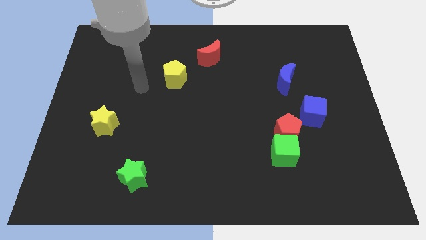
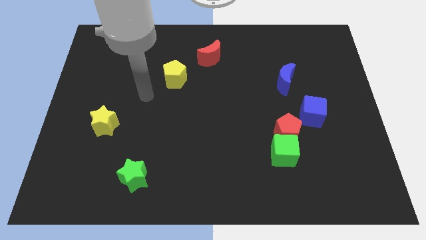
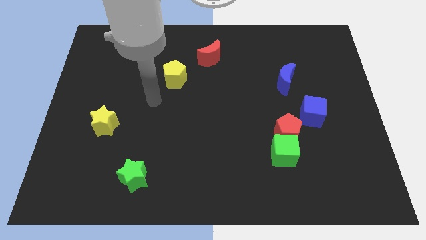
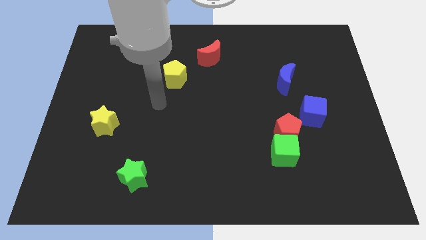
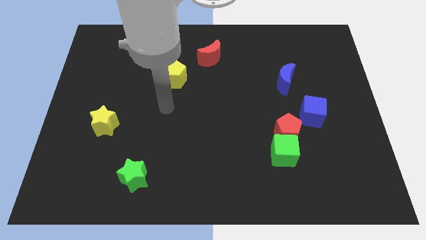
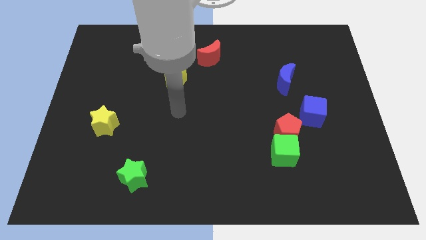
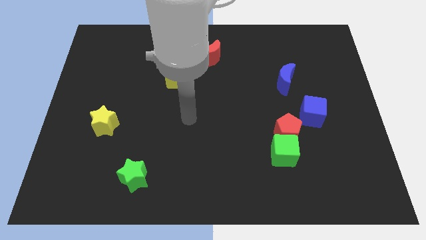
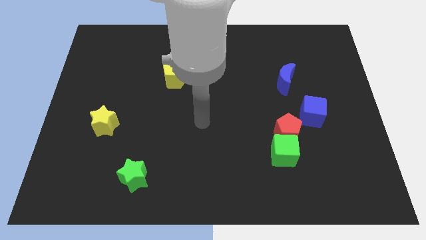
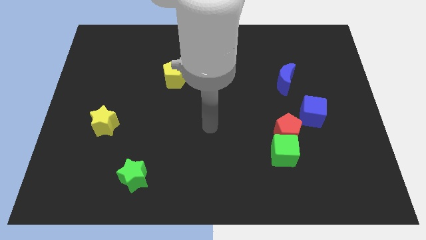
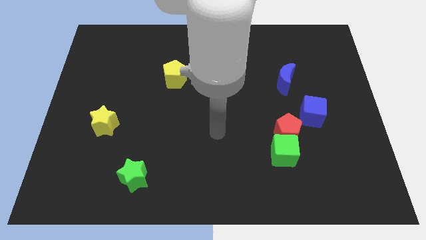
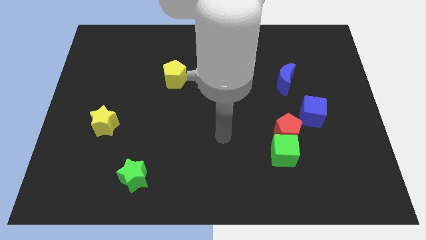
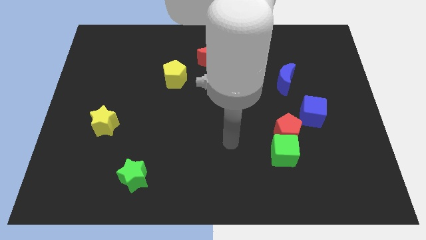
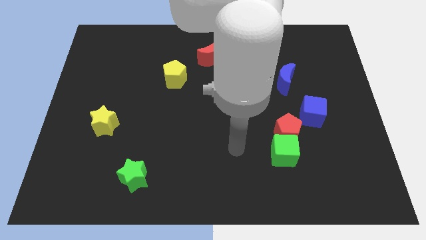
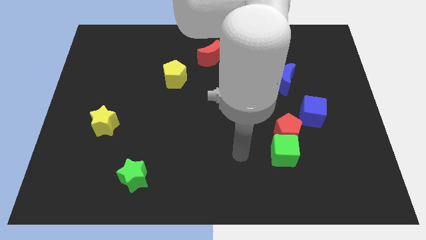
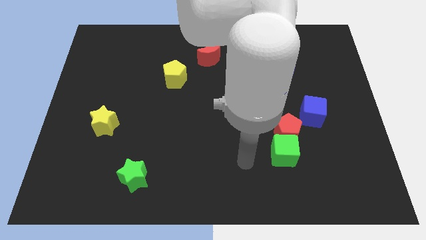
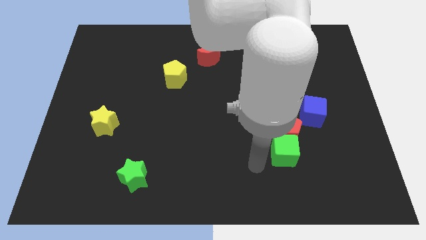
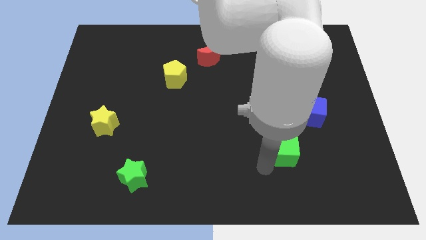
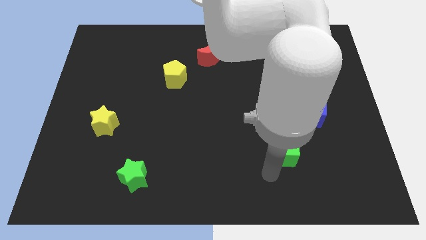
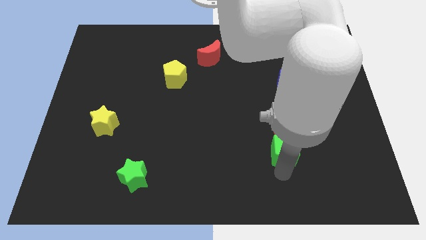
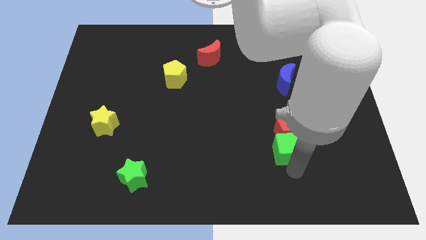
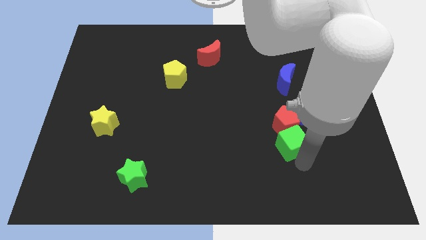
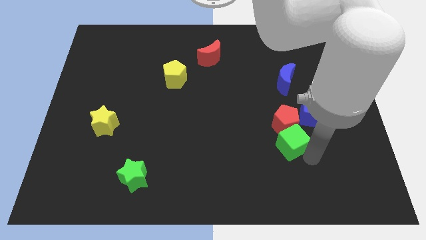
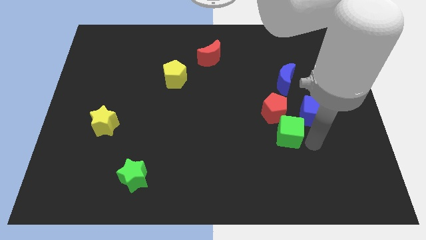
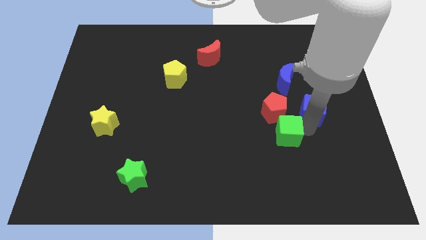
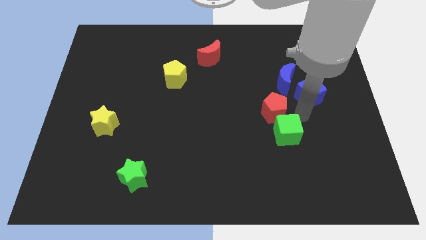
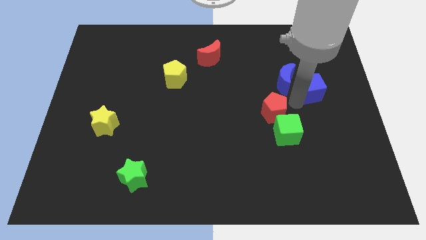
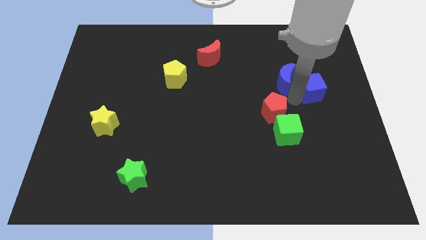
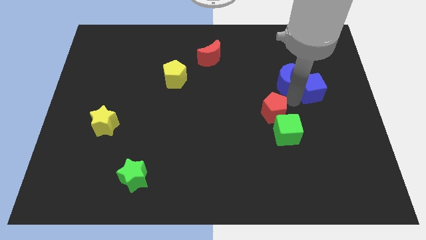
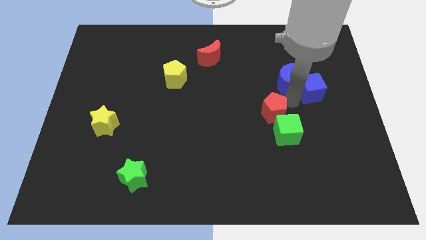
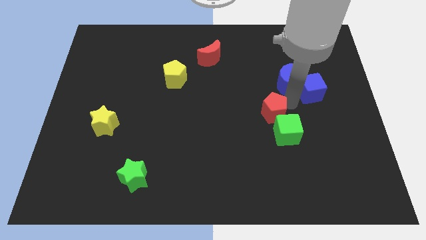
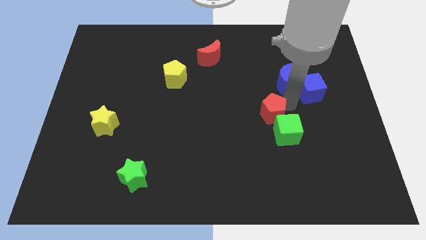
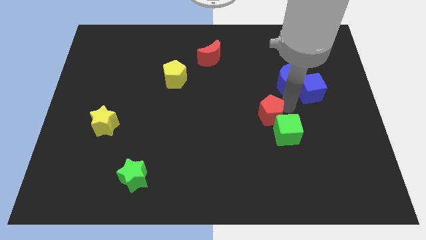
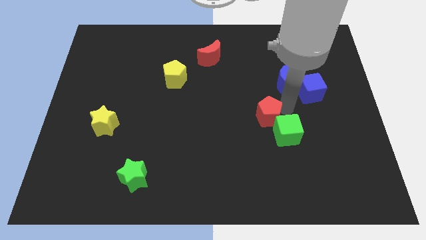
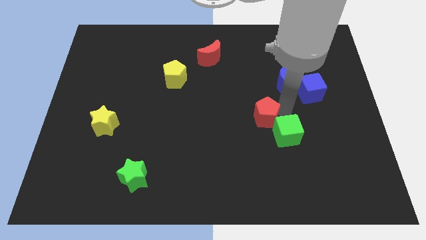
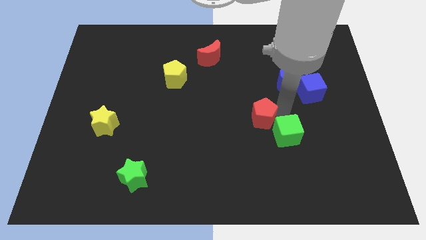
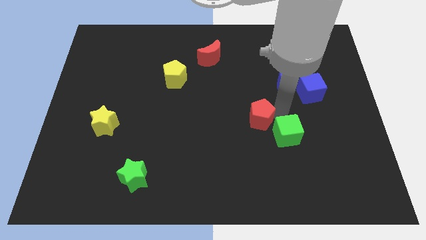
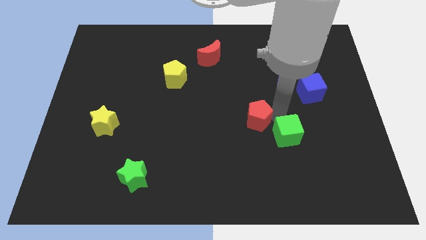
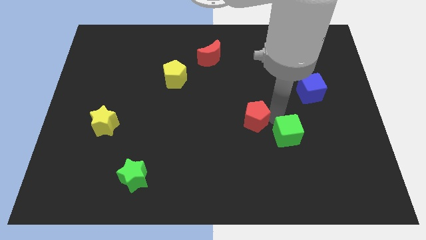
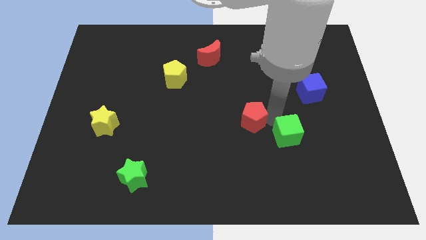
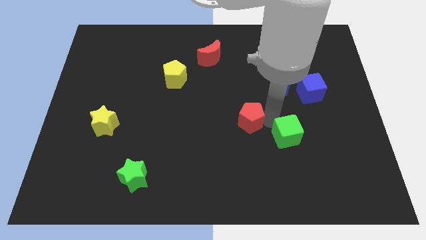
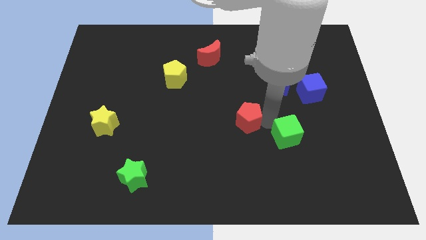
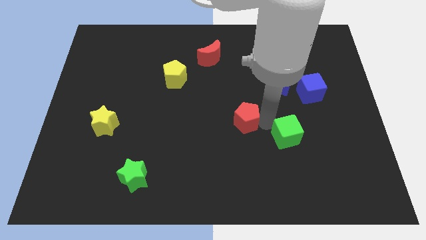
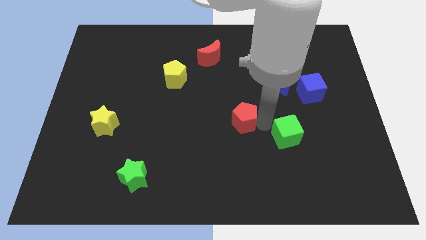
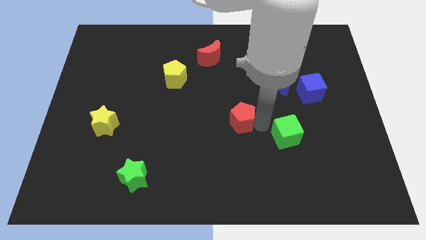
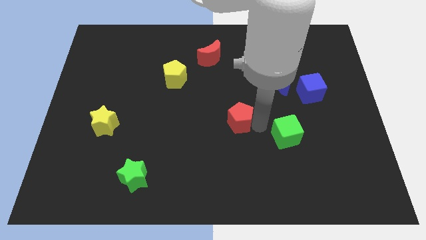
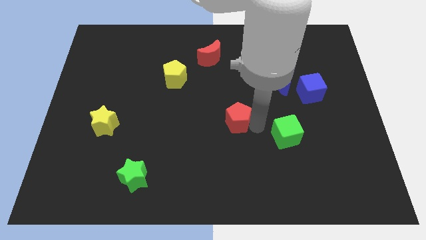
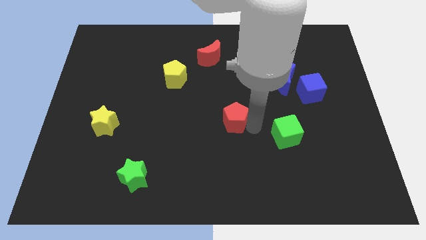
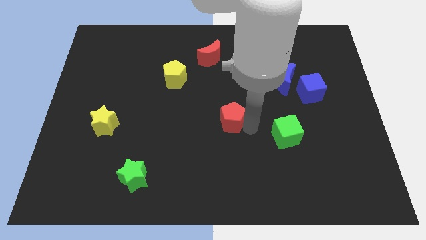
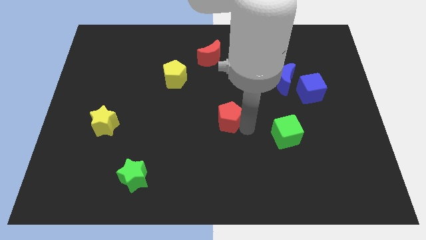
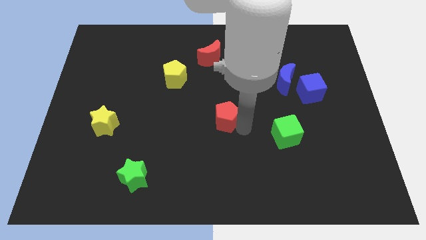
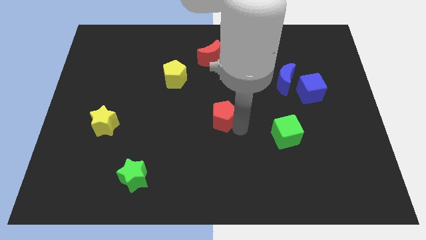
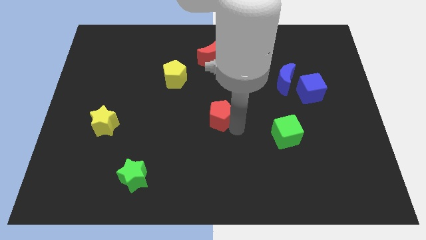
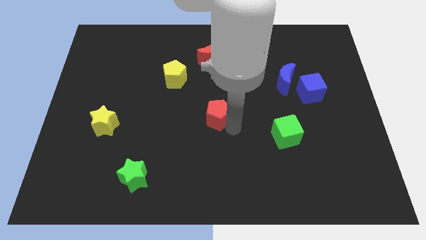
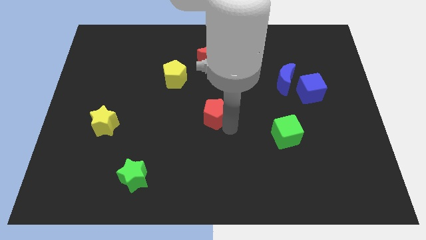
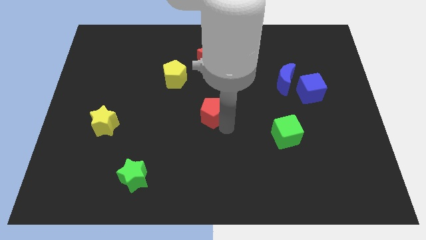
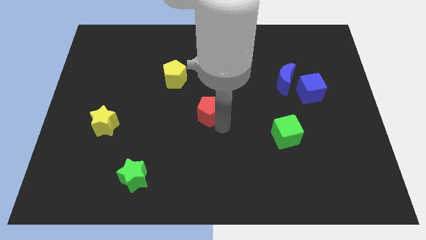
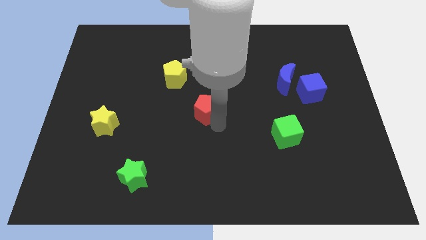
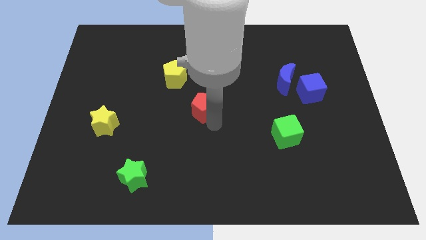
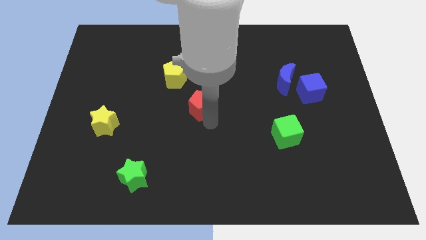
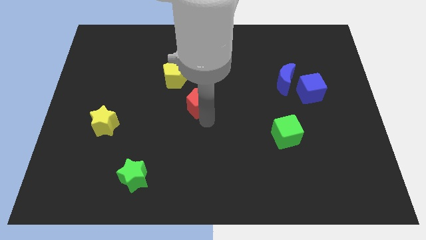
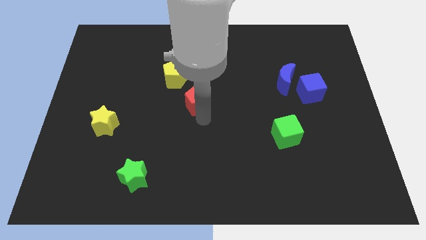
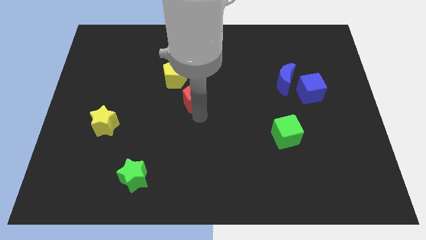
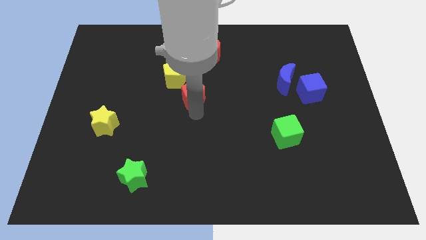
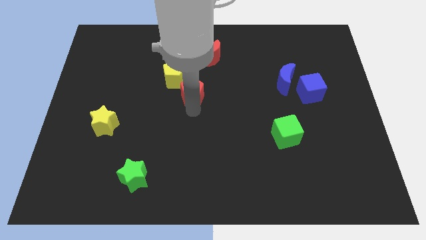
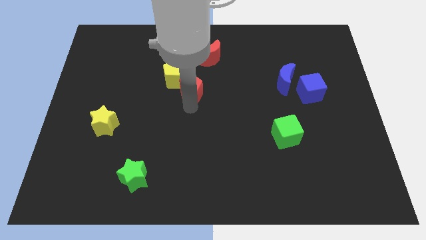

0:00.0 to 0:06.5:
slide the red pentagon right of the yellow pentagon

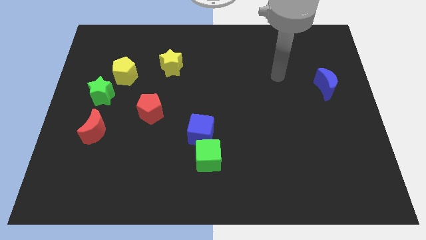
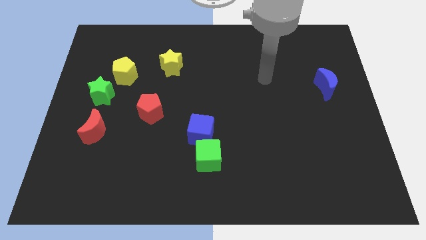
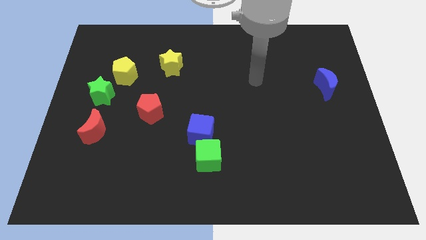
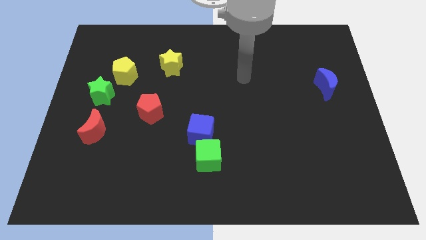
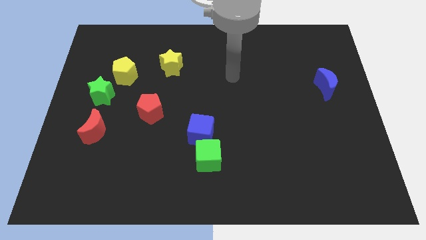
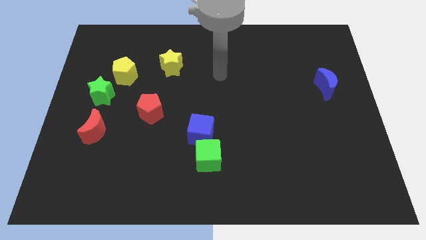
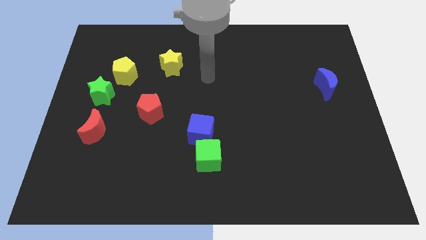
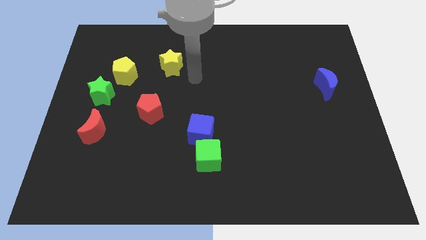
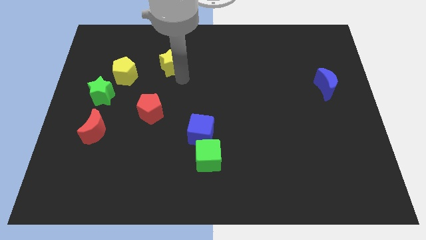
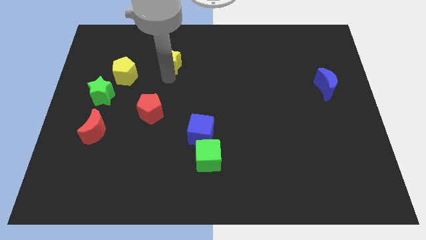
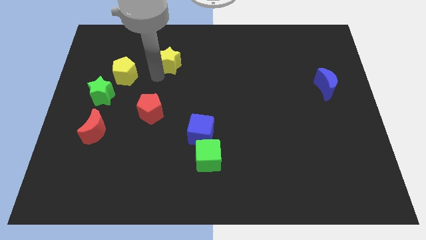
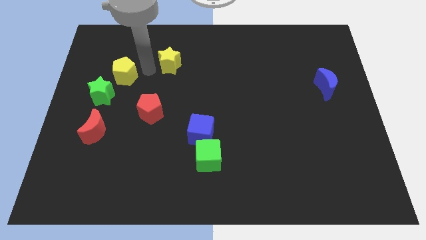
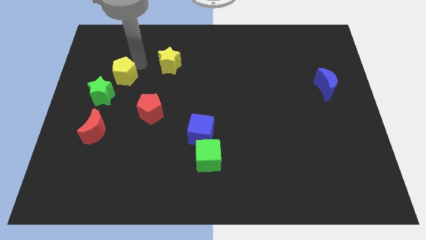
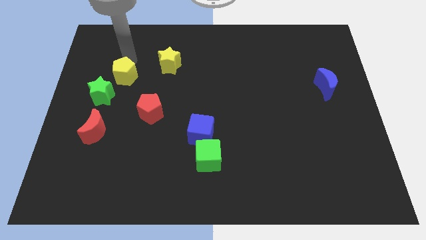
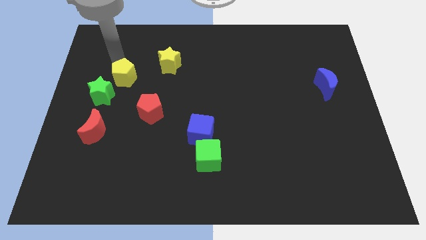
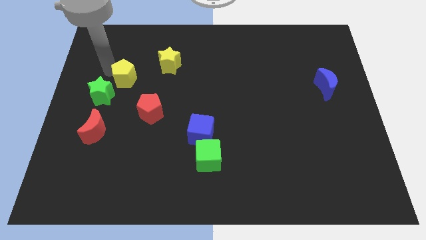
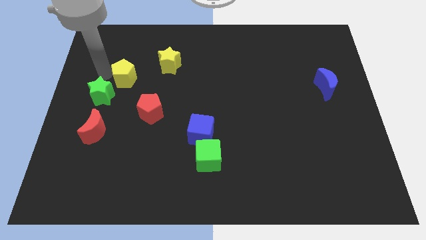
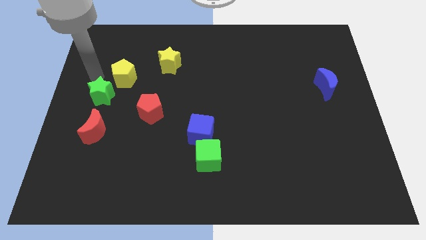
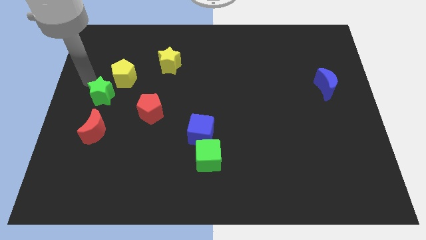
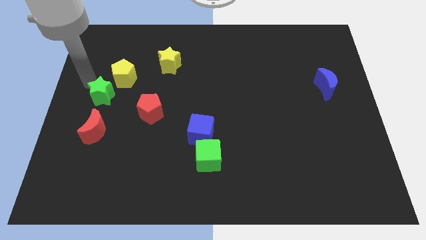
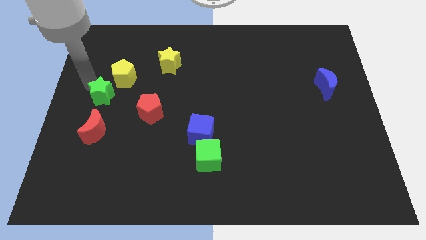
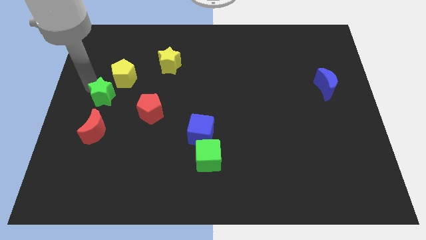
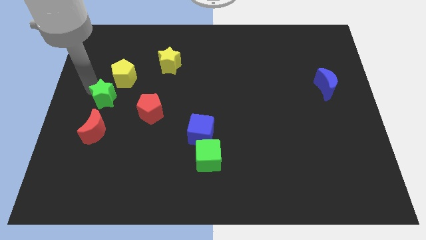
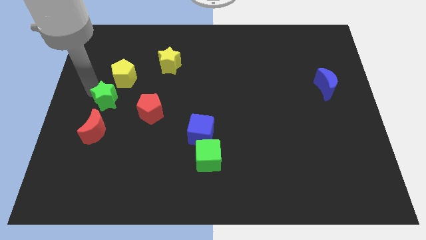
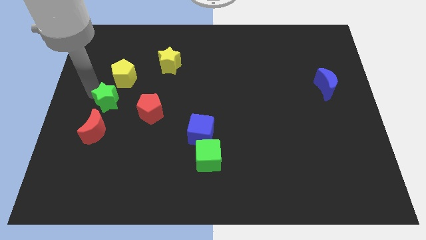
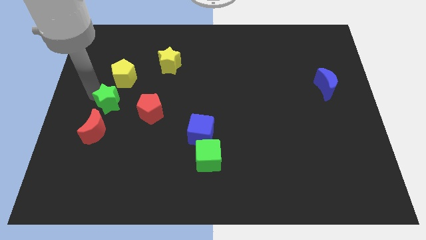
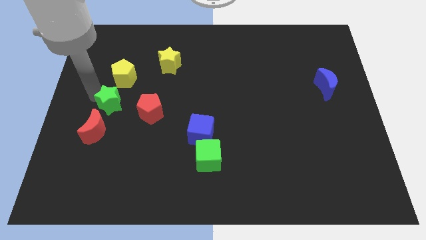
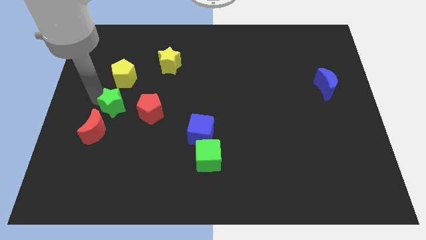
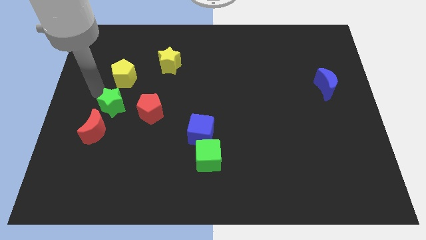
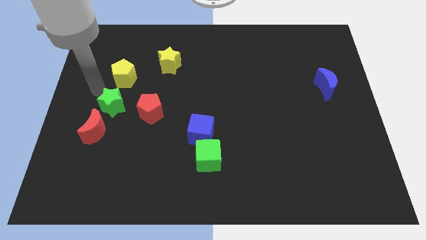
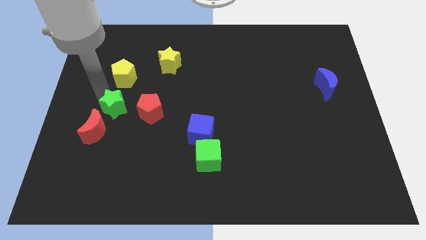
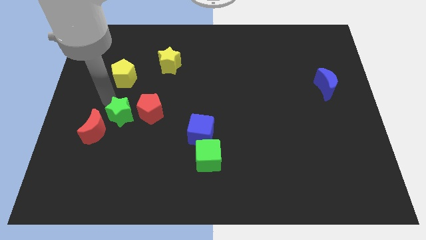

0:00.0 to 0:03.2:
put the green star just right of the red moon
